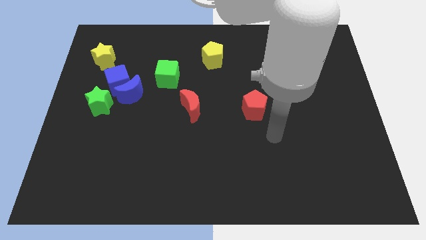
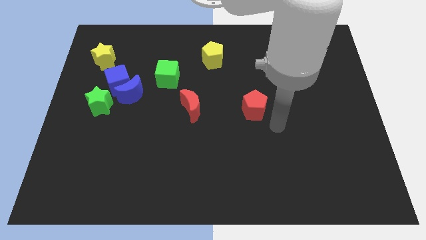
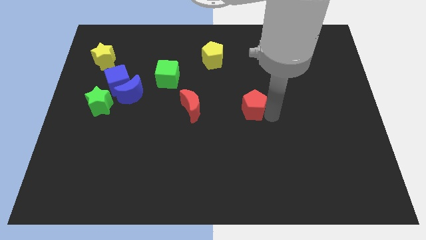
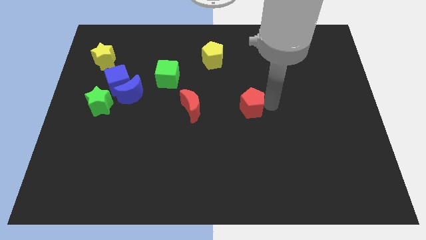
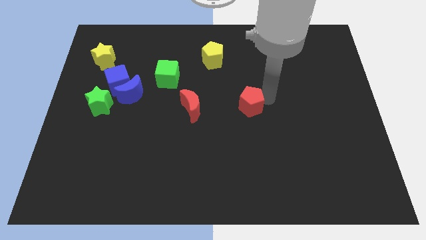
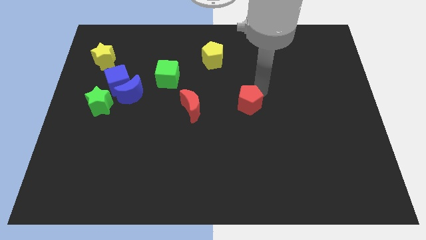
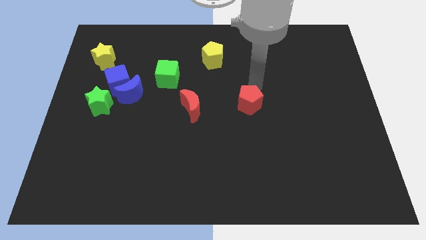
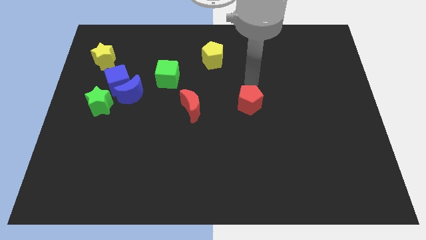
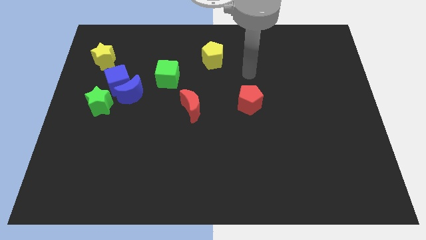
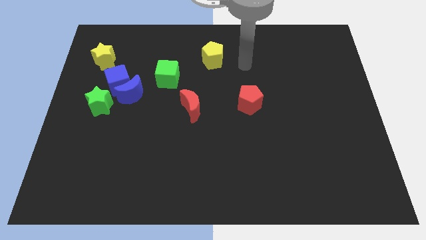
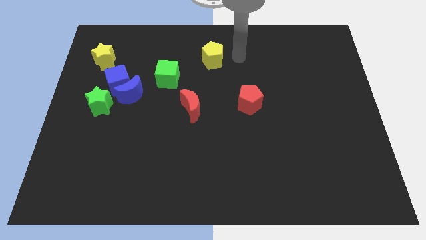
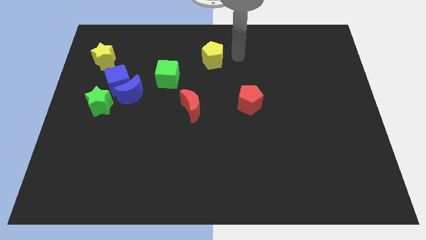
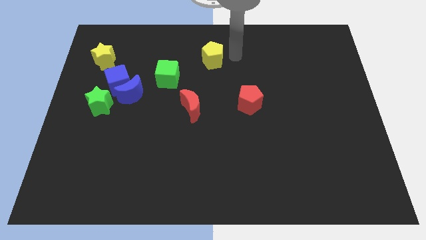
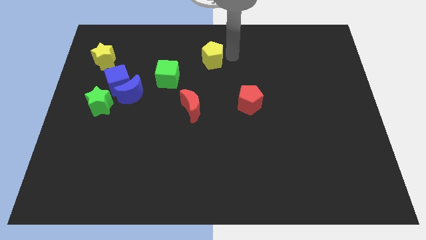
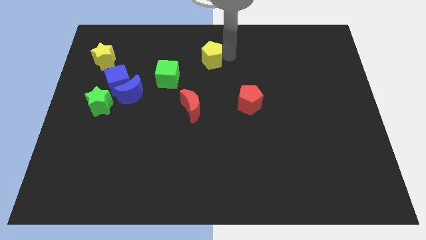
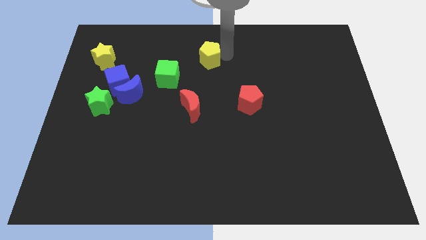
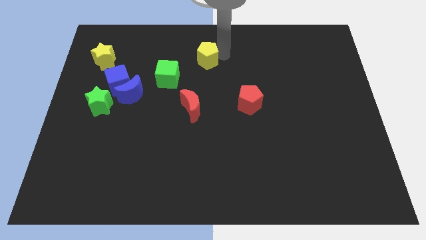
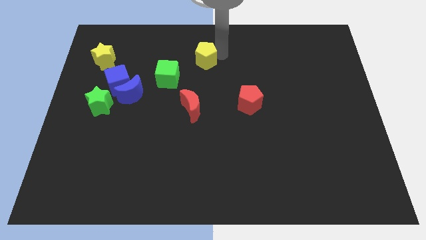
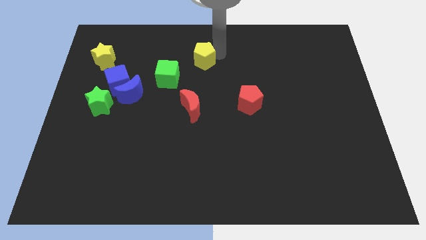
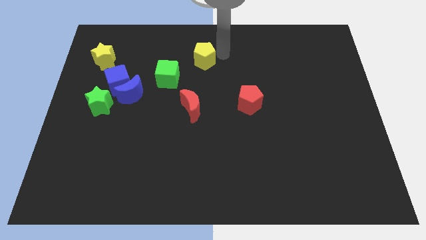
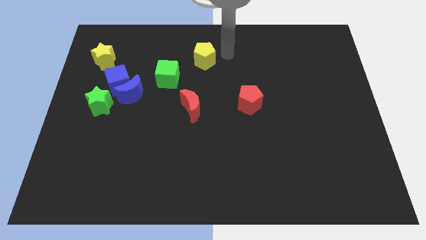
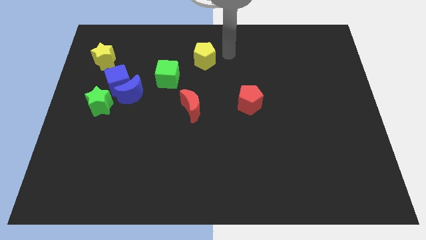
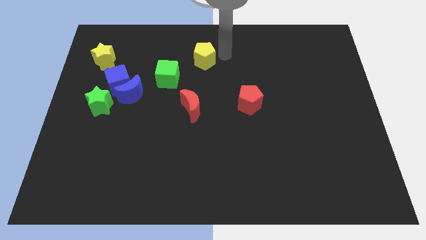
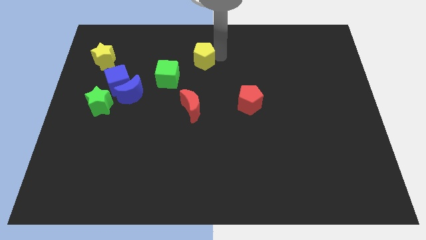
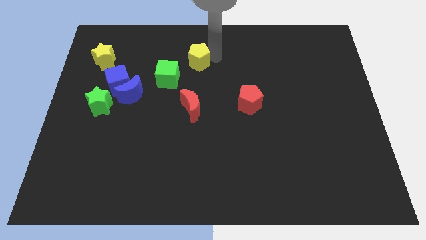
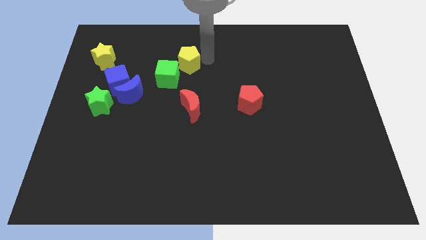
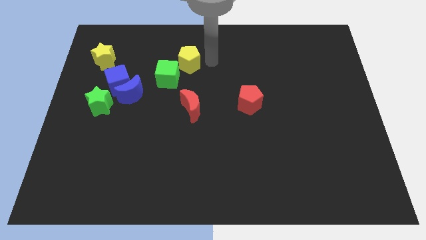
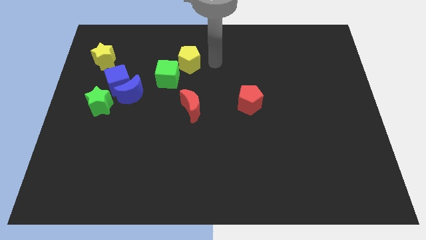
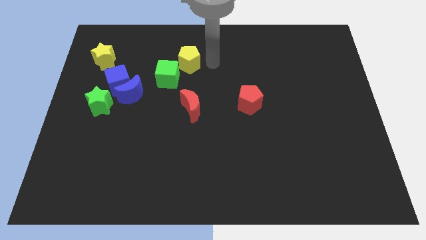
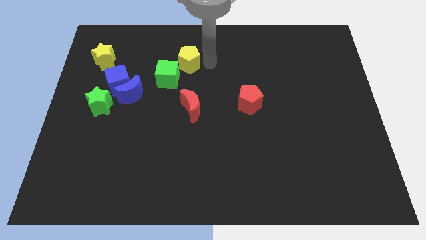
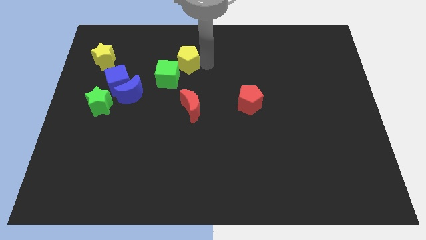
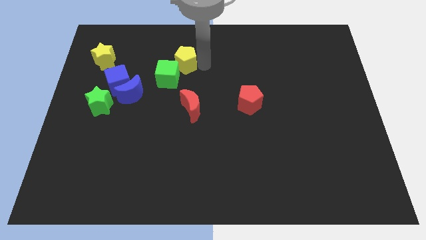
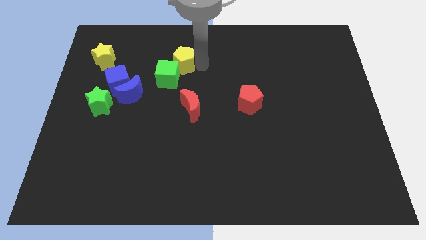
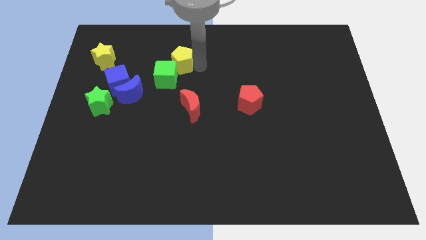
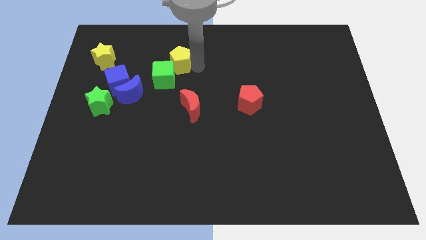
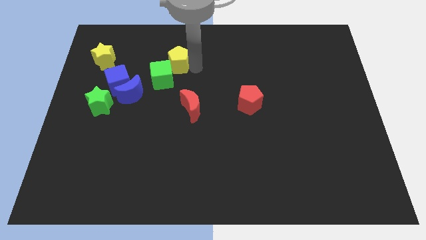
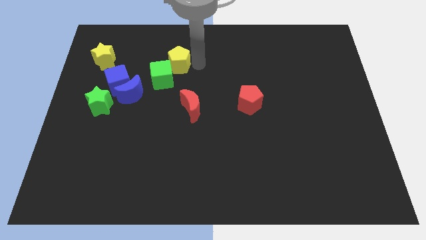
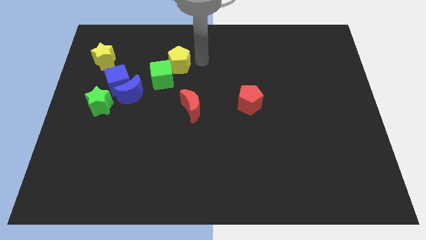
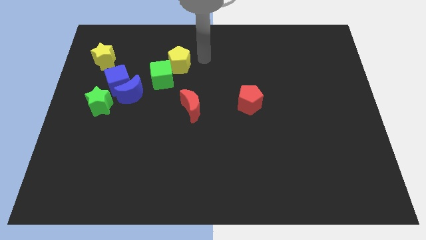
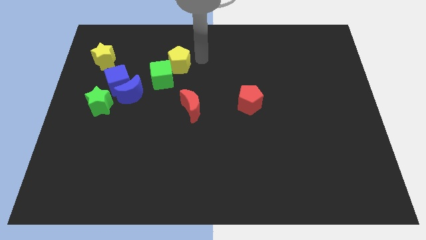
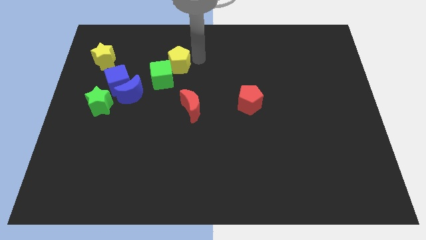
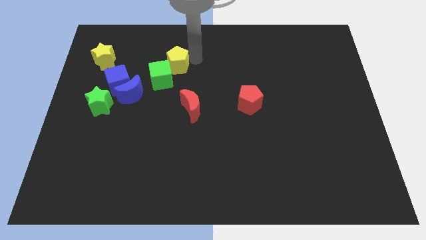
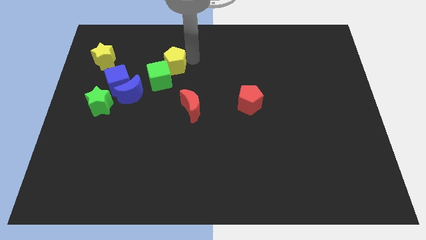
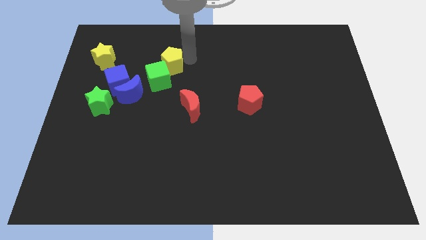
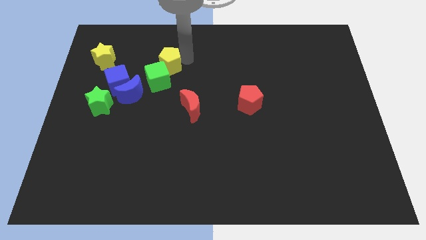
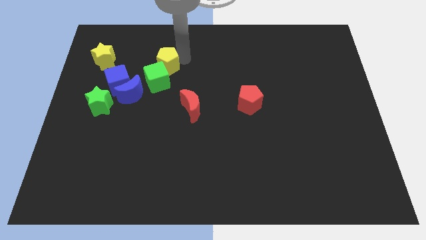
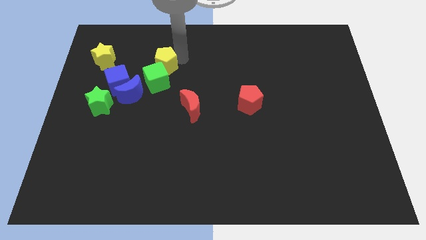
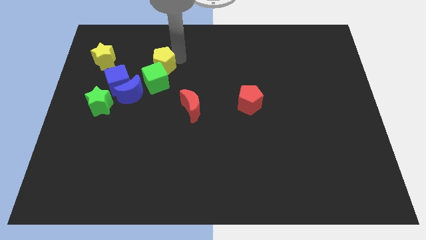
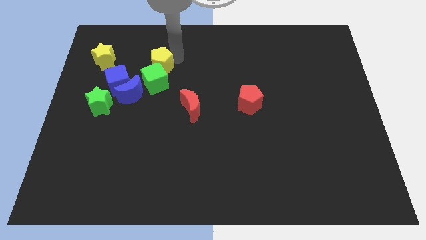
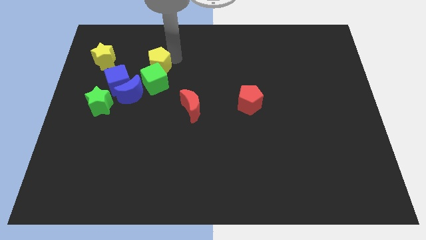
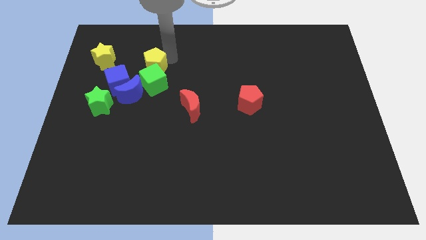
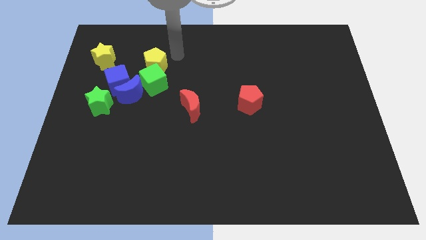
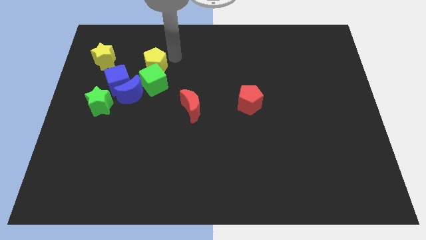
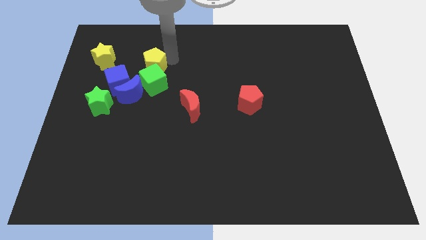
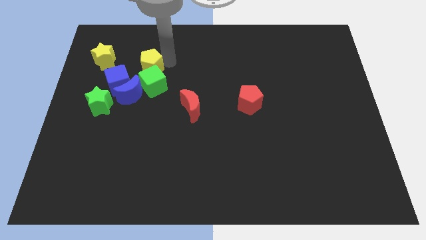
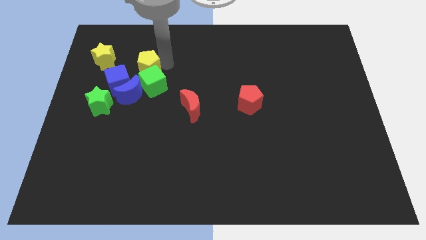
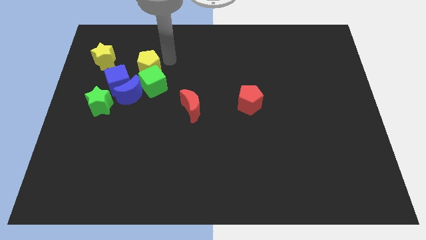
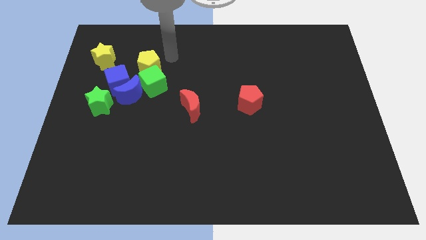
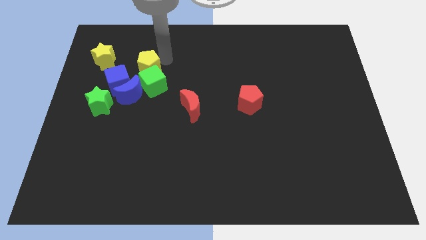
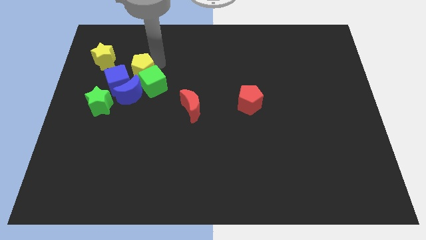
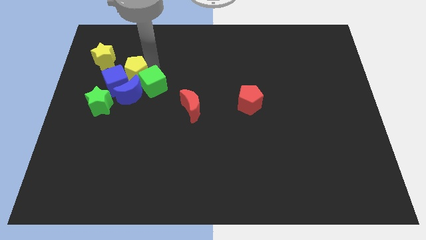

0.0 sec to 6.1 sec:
move the yellow pentagon to the blue cube
